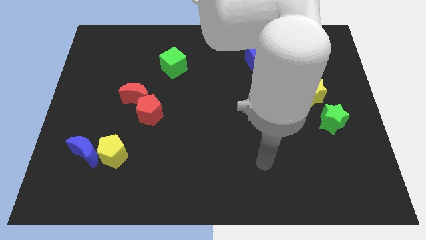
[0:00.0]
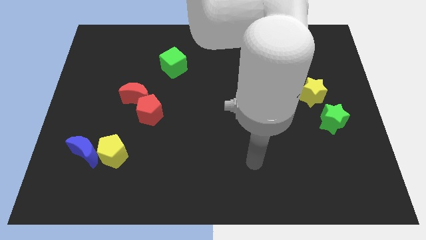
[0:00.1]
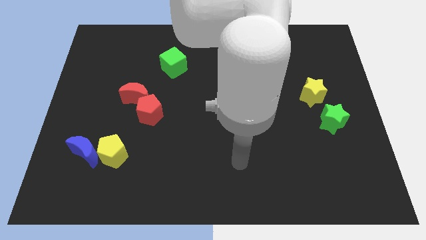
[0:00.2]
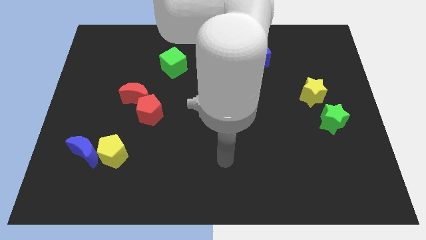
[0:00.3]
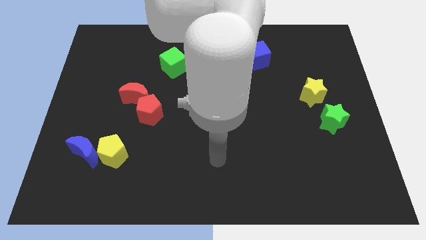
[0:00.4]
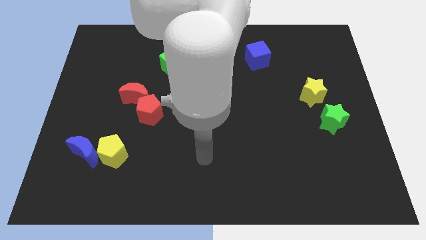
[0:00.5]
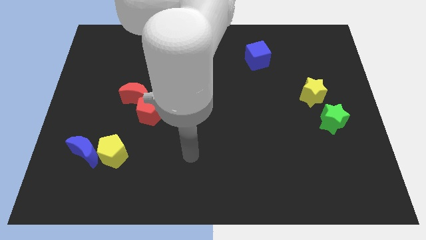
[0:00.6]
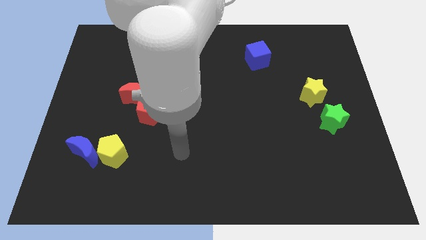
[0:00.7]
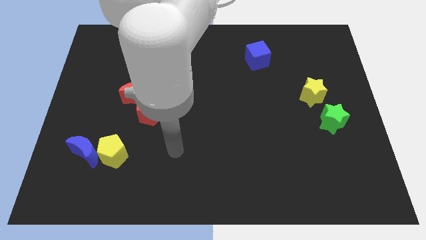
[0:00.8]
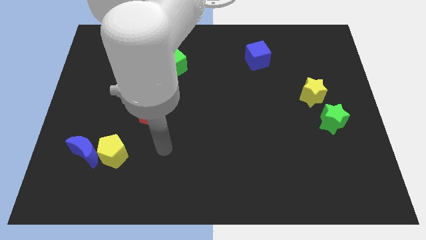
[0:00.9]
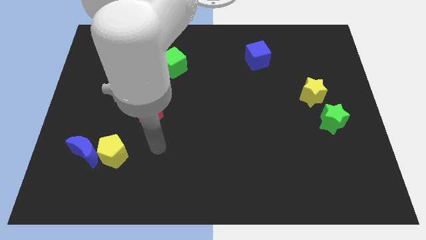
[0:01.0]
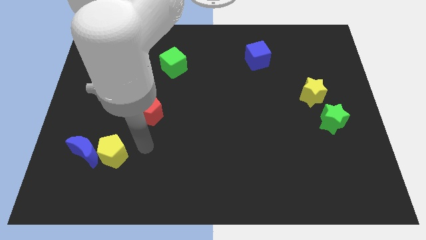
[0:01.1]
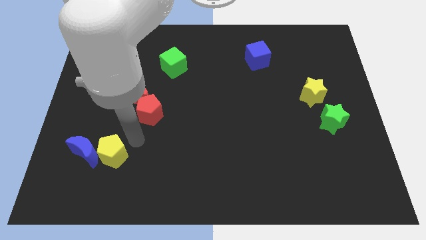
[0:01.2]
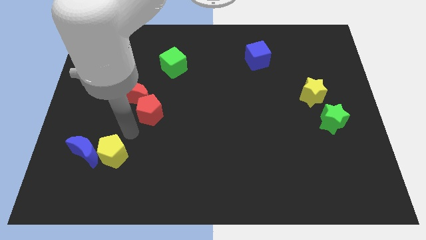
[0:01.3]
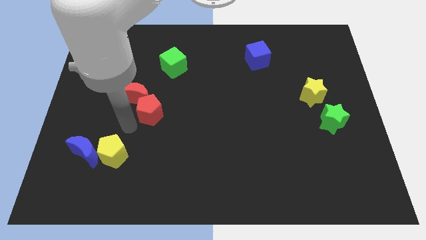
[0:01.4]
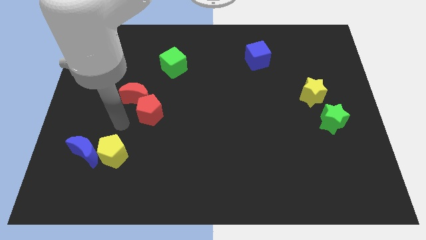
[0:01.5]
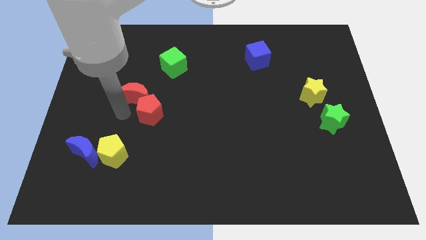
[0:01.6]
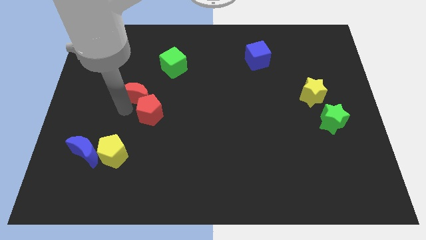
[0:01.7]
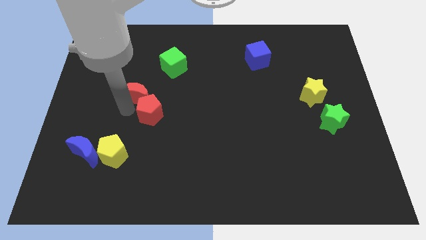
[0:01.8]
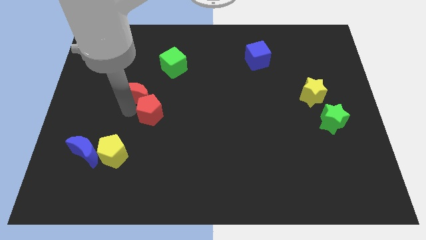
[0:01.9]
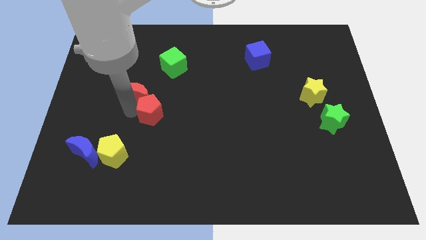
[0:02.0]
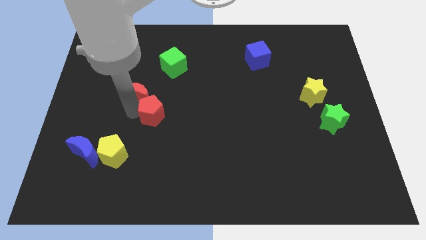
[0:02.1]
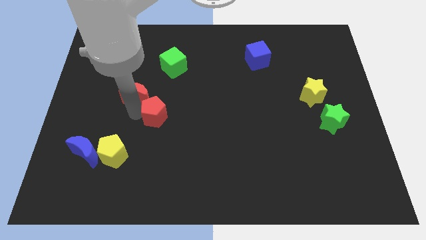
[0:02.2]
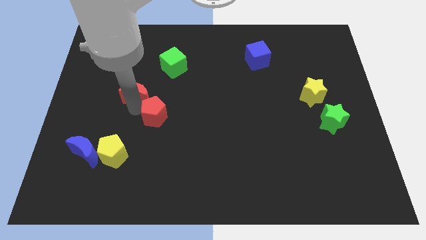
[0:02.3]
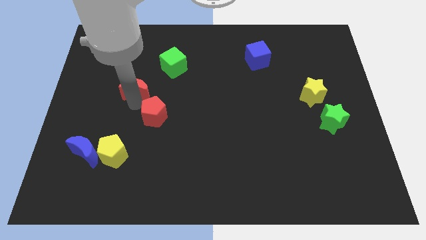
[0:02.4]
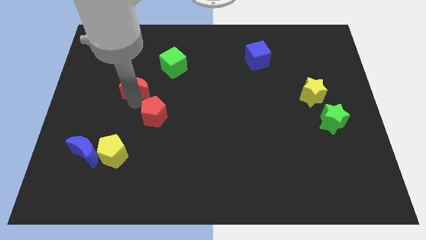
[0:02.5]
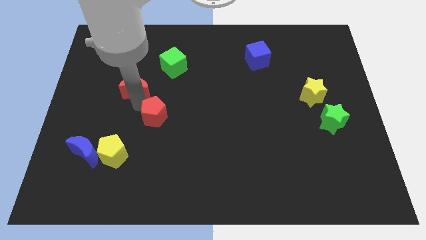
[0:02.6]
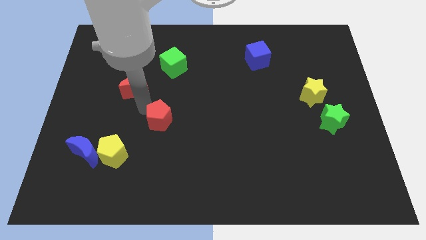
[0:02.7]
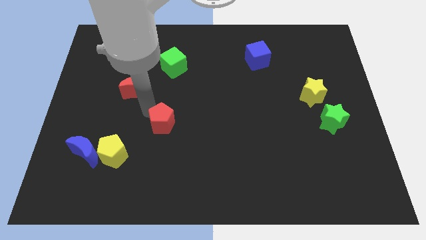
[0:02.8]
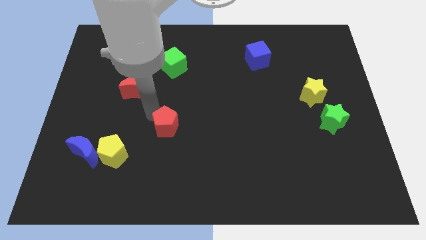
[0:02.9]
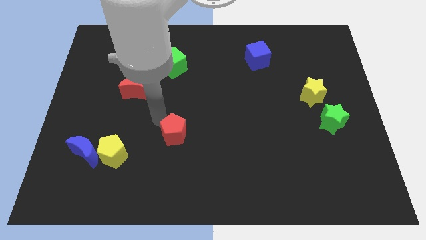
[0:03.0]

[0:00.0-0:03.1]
move the red pentagon a little bit diagonally downwards and right

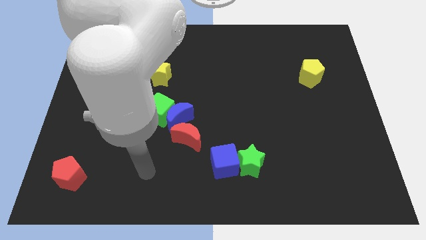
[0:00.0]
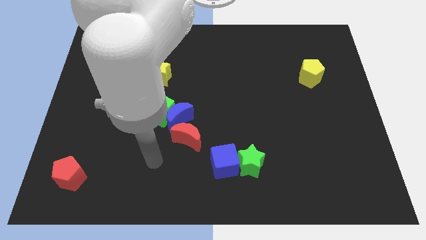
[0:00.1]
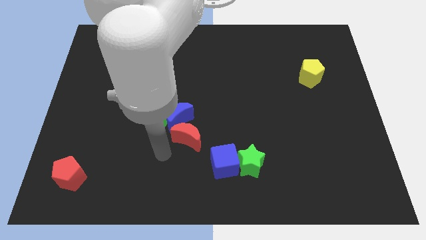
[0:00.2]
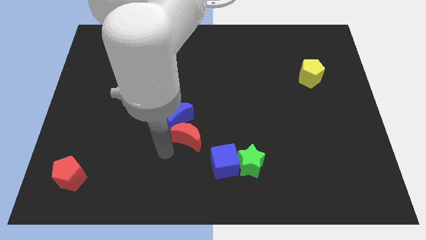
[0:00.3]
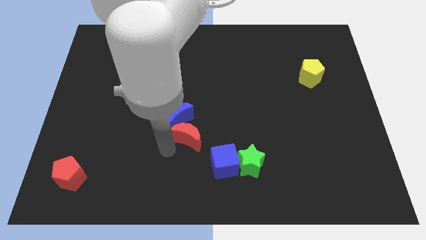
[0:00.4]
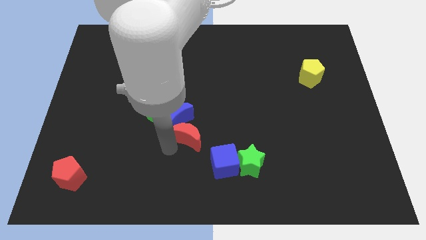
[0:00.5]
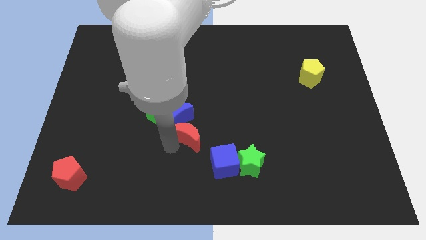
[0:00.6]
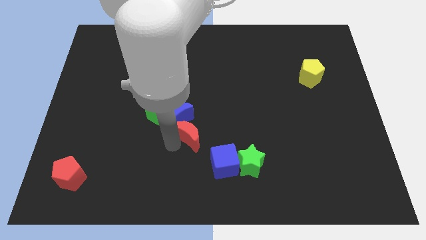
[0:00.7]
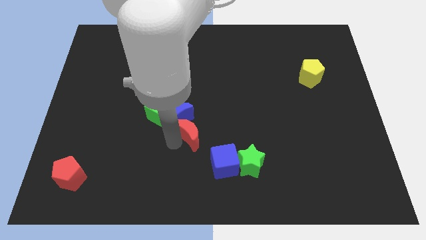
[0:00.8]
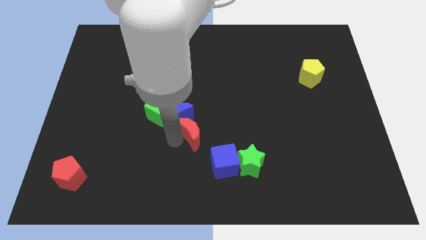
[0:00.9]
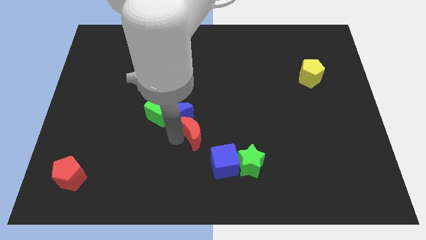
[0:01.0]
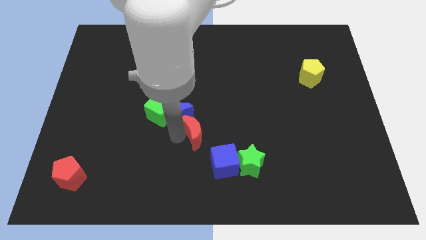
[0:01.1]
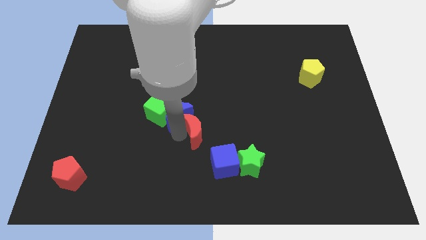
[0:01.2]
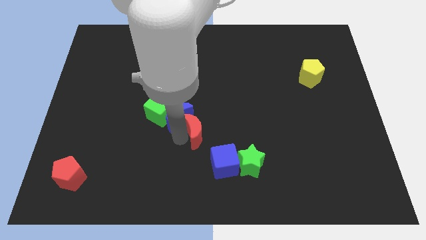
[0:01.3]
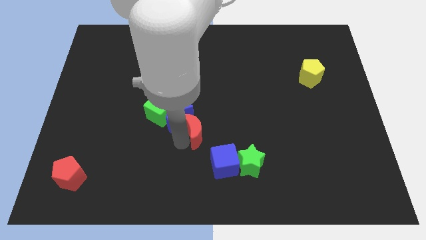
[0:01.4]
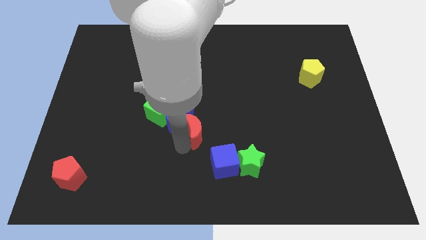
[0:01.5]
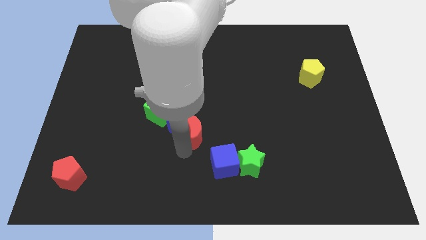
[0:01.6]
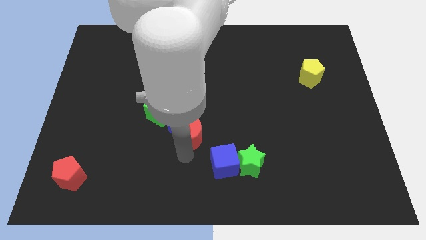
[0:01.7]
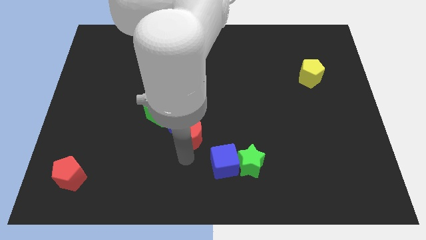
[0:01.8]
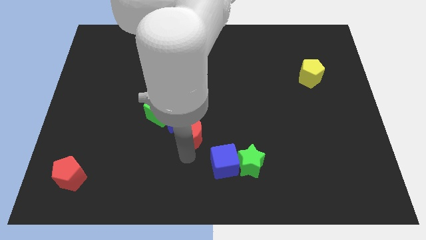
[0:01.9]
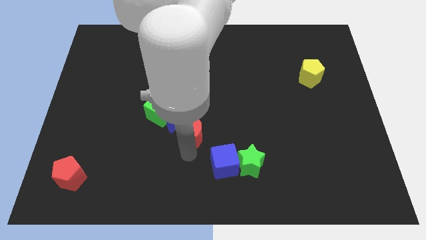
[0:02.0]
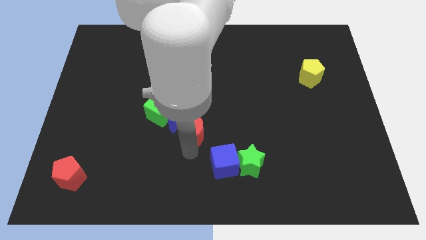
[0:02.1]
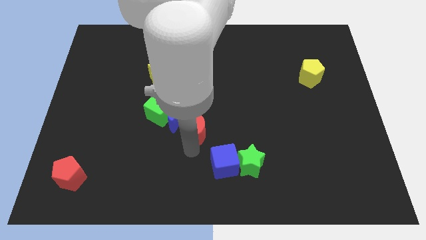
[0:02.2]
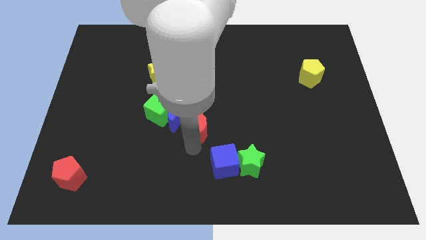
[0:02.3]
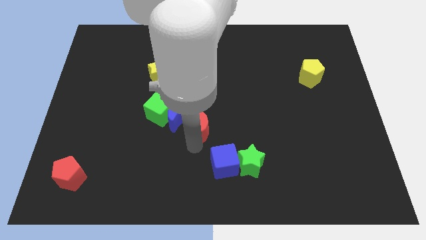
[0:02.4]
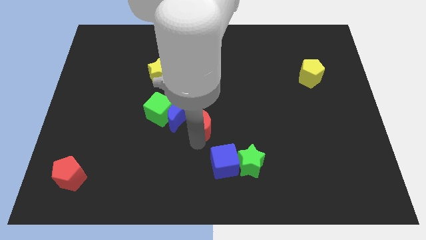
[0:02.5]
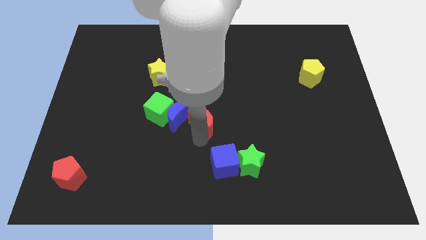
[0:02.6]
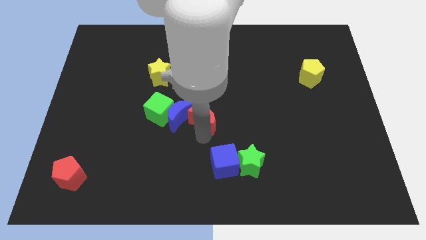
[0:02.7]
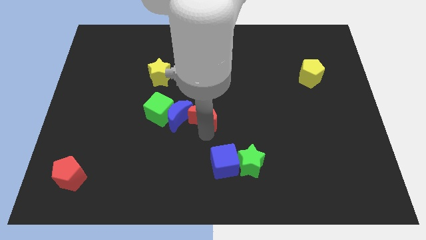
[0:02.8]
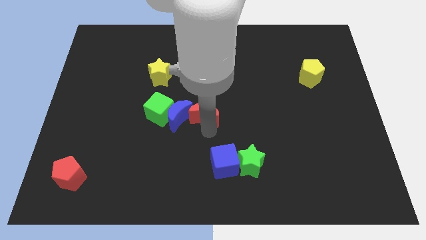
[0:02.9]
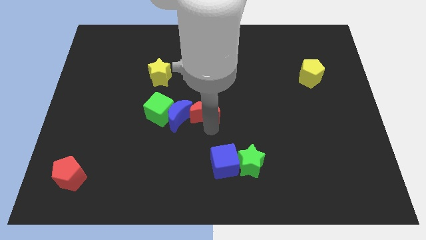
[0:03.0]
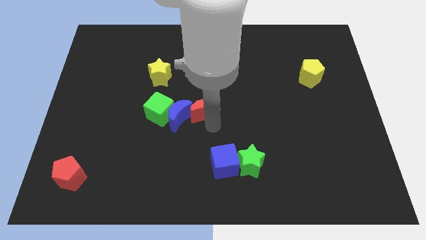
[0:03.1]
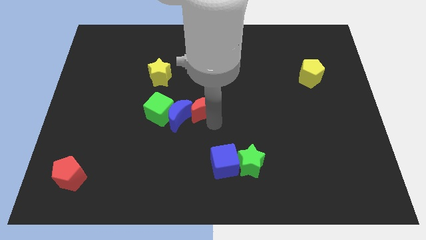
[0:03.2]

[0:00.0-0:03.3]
push the red moon slightly upwards

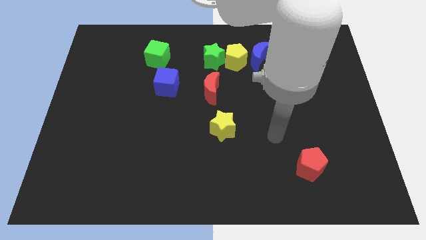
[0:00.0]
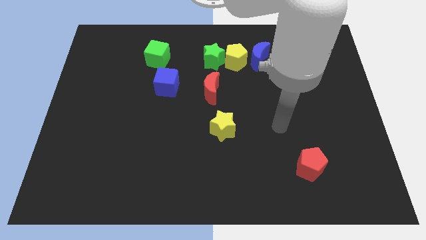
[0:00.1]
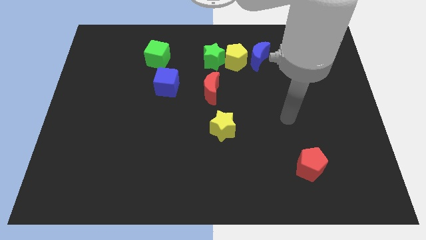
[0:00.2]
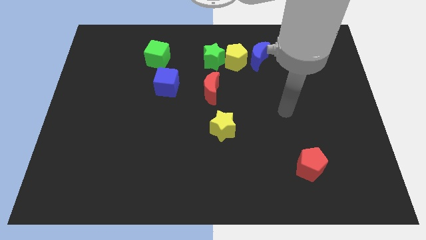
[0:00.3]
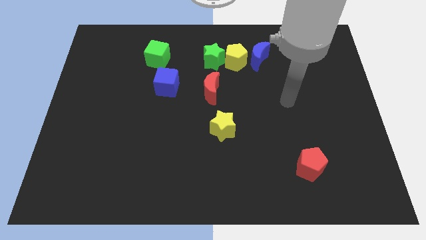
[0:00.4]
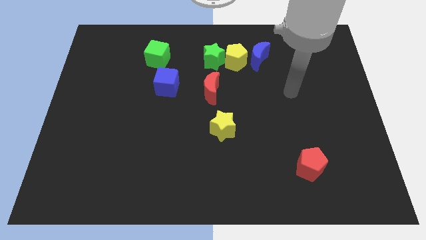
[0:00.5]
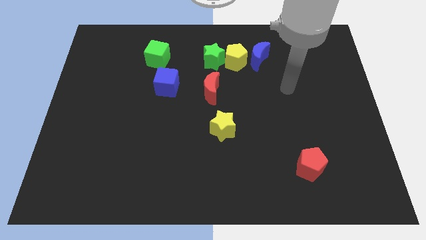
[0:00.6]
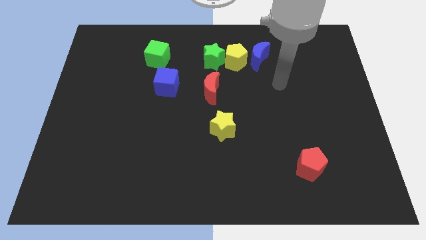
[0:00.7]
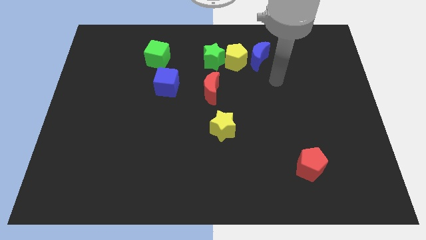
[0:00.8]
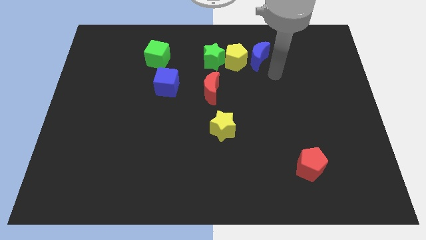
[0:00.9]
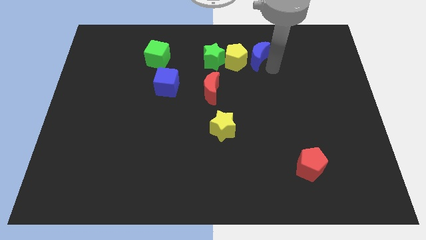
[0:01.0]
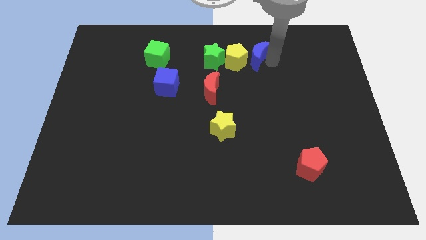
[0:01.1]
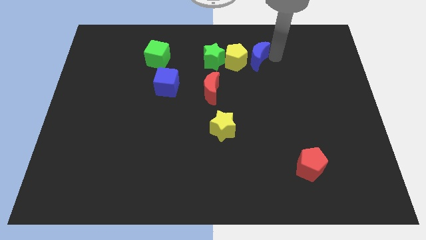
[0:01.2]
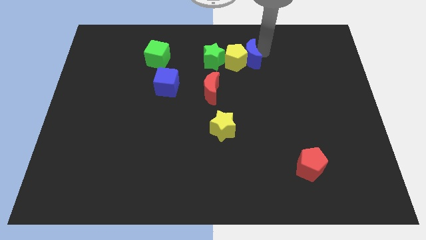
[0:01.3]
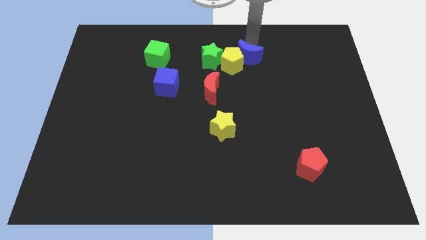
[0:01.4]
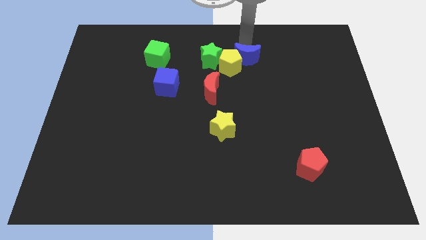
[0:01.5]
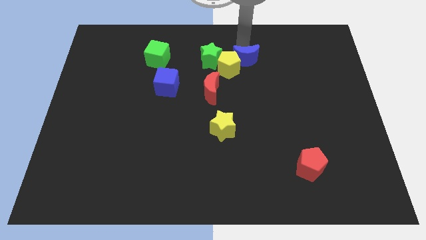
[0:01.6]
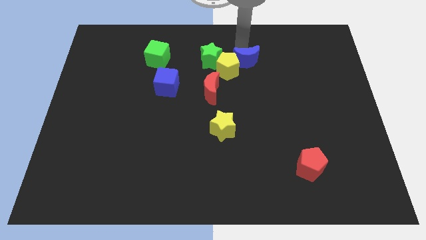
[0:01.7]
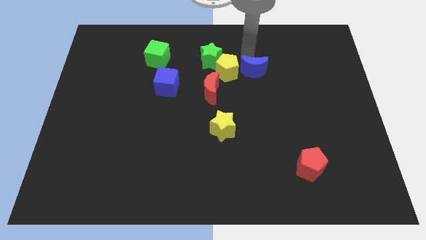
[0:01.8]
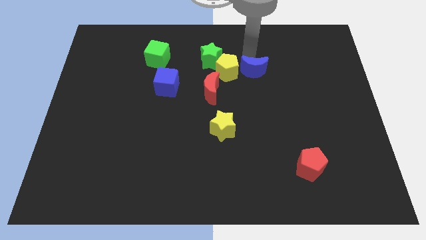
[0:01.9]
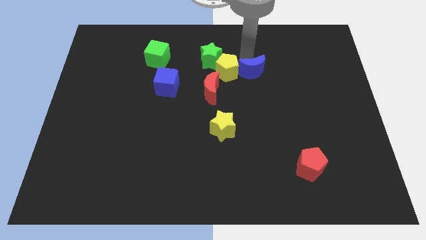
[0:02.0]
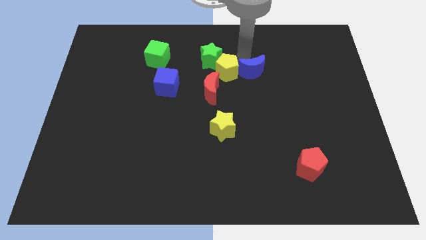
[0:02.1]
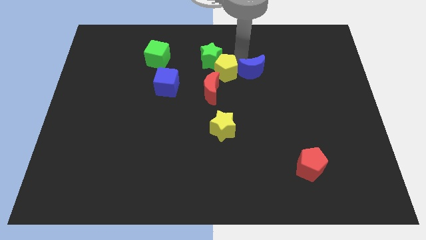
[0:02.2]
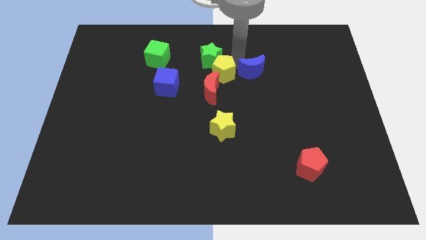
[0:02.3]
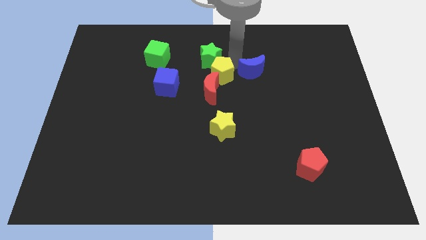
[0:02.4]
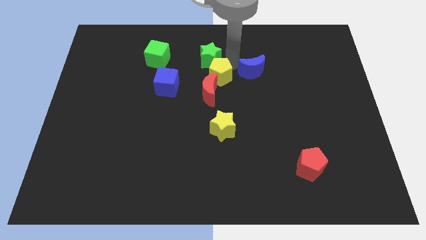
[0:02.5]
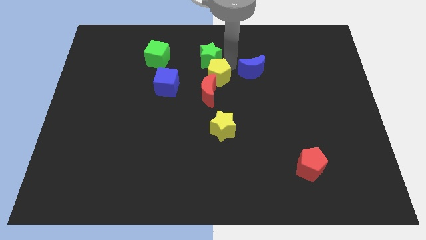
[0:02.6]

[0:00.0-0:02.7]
slide the yellow pentagon down and to the left somewhat
